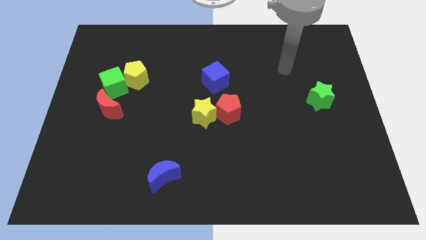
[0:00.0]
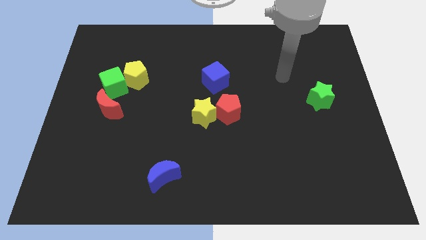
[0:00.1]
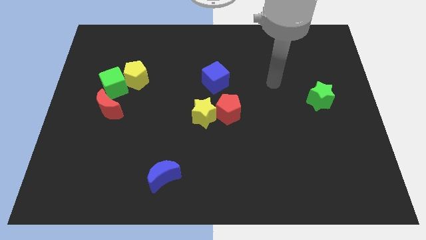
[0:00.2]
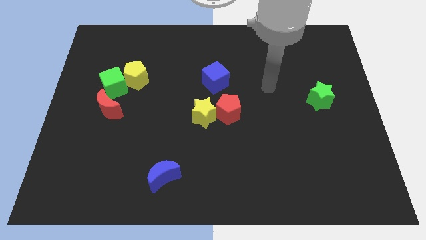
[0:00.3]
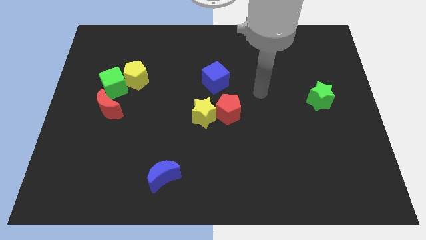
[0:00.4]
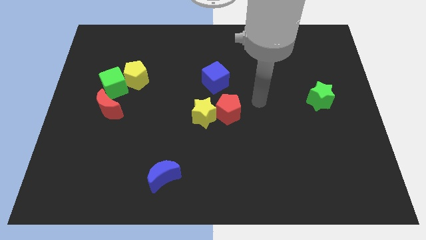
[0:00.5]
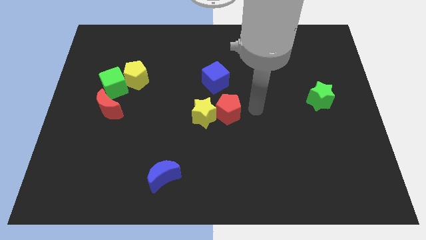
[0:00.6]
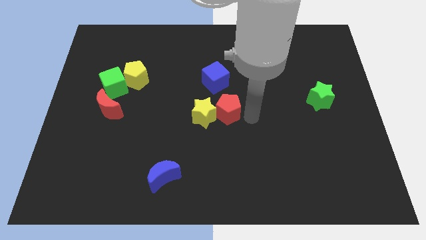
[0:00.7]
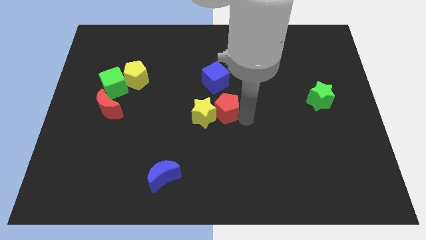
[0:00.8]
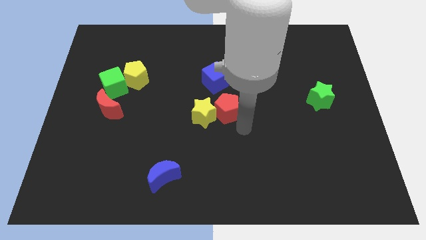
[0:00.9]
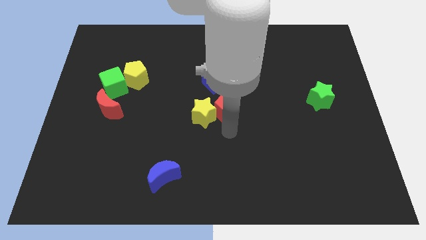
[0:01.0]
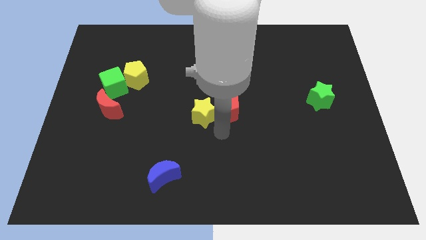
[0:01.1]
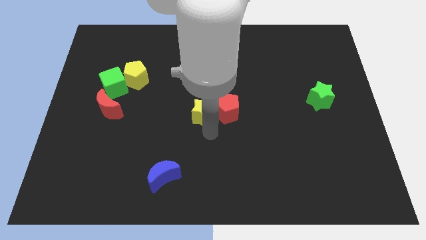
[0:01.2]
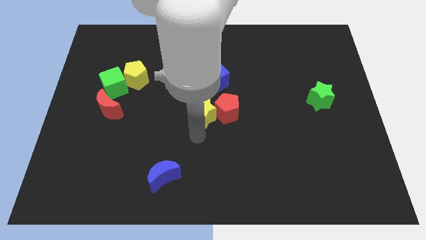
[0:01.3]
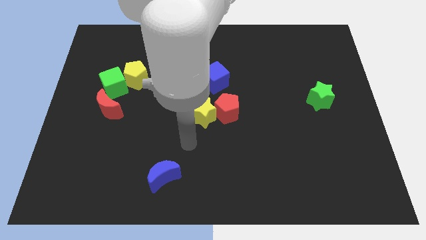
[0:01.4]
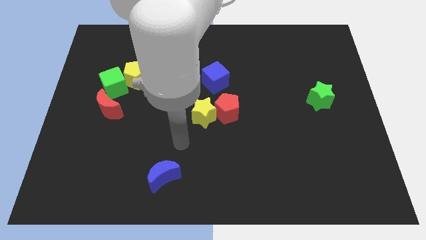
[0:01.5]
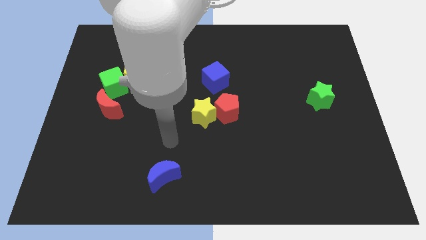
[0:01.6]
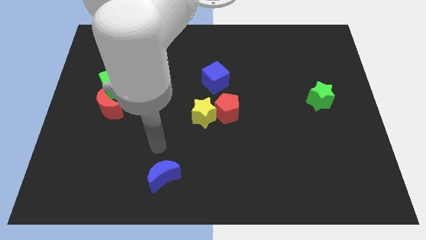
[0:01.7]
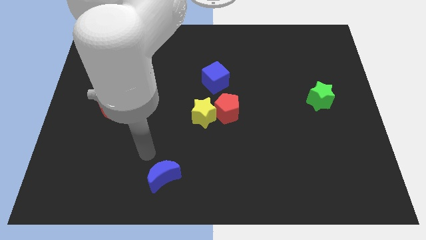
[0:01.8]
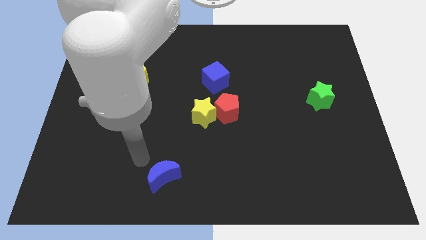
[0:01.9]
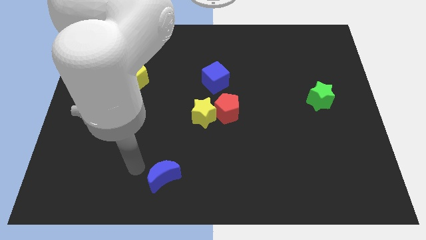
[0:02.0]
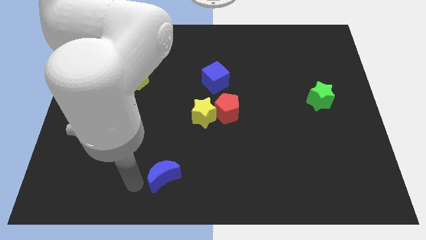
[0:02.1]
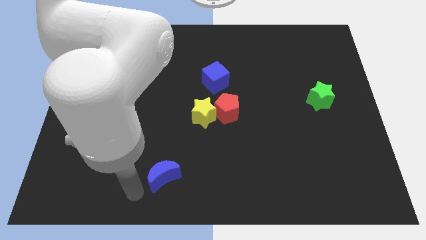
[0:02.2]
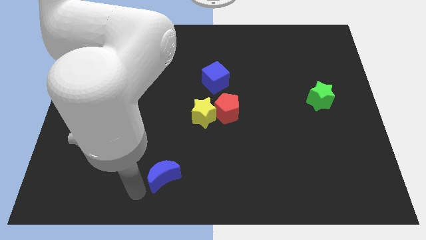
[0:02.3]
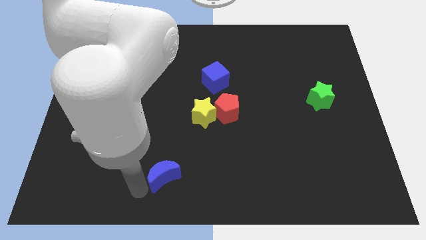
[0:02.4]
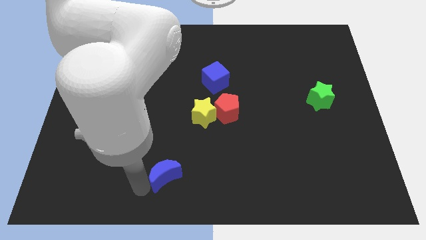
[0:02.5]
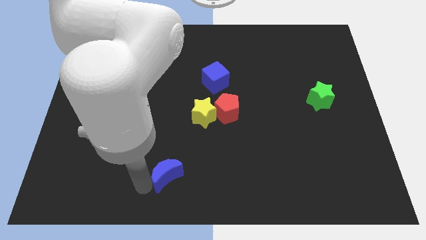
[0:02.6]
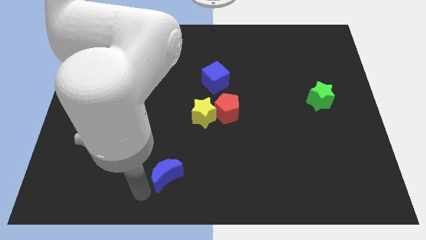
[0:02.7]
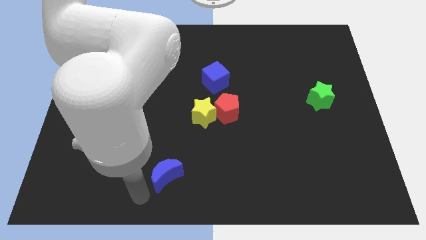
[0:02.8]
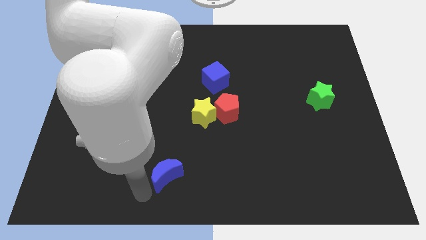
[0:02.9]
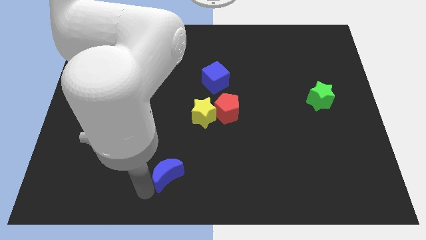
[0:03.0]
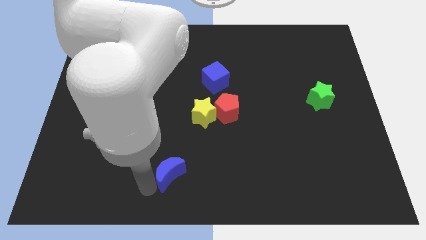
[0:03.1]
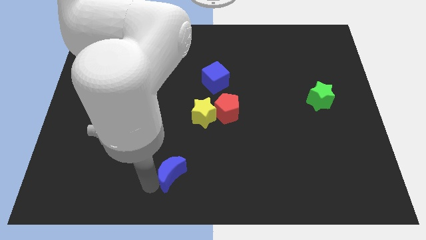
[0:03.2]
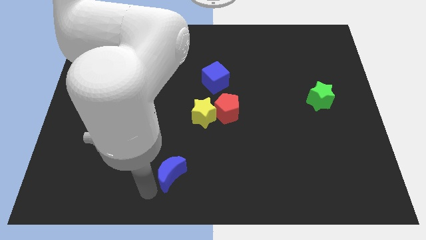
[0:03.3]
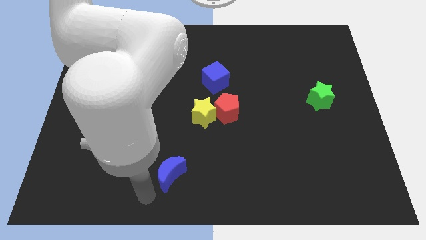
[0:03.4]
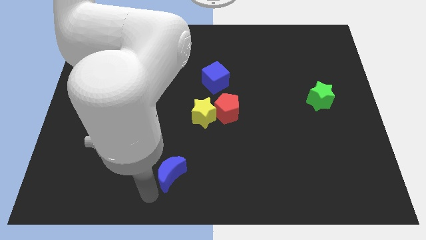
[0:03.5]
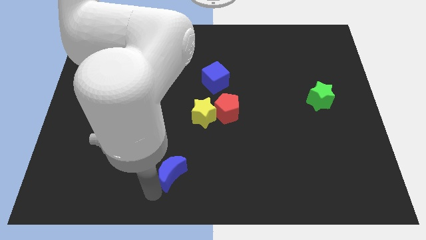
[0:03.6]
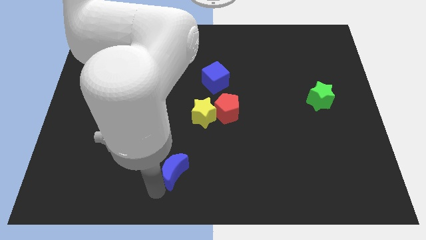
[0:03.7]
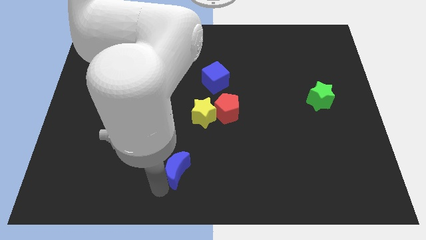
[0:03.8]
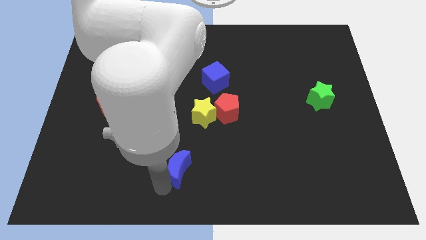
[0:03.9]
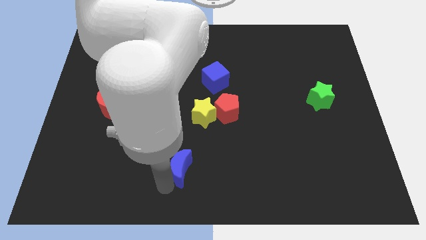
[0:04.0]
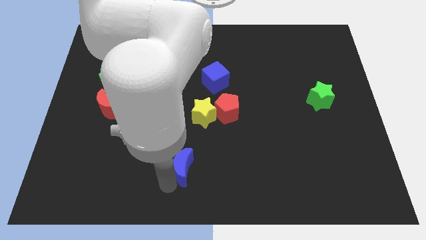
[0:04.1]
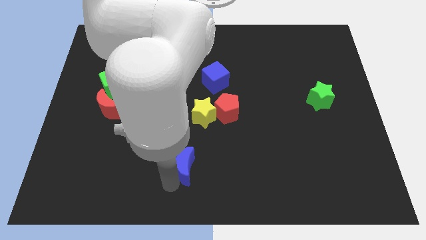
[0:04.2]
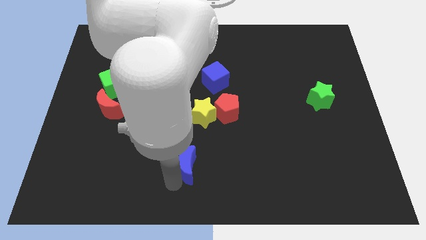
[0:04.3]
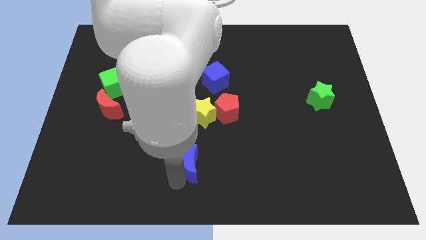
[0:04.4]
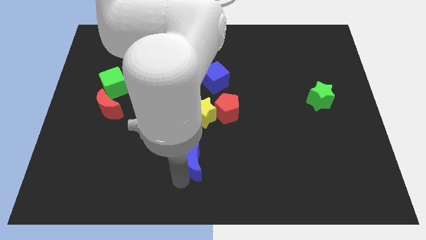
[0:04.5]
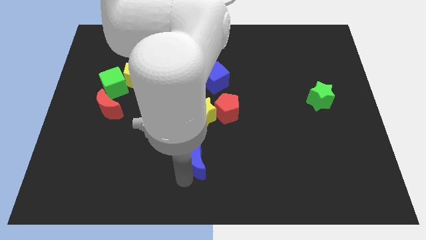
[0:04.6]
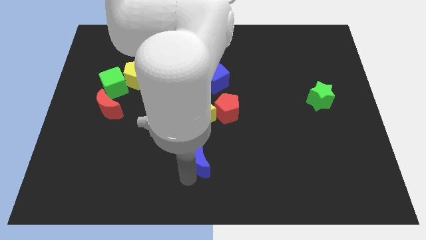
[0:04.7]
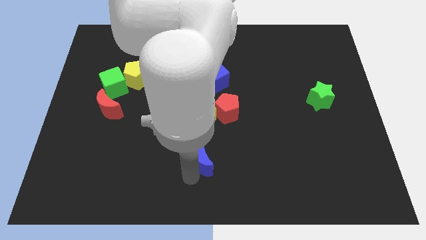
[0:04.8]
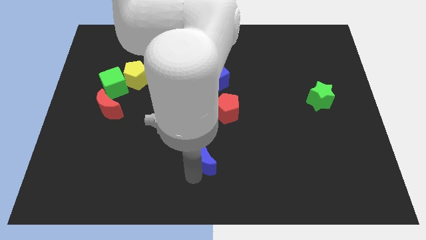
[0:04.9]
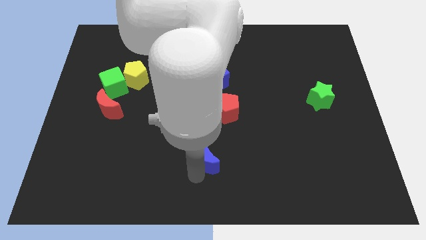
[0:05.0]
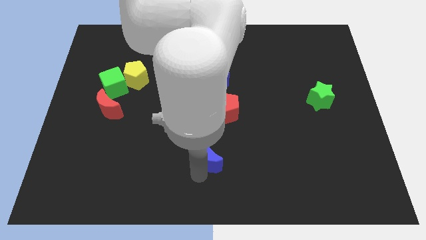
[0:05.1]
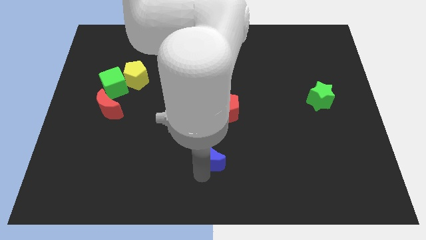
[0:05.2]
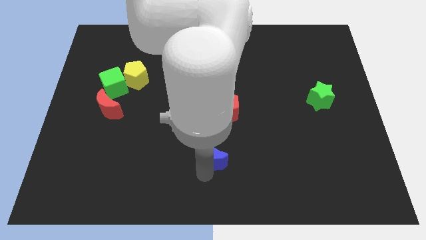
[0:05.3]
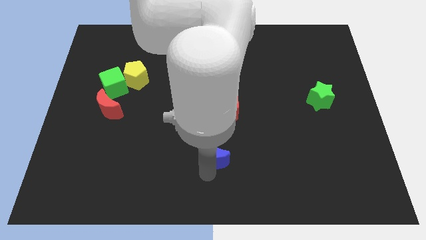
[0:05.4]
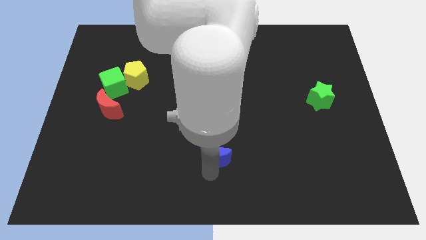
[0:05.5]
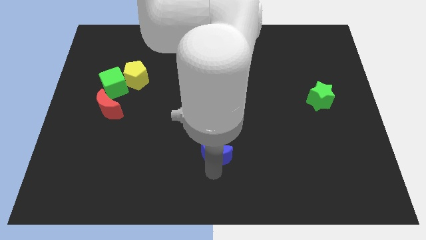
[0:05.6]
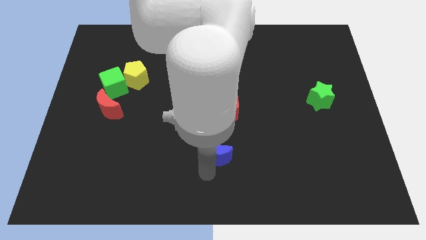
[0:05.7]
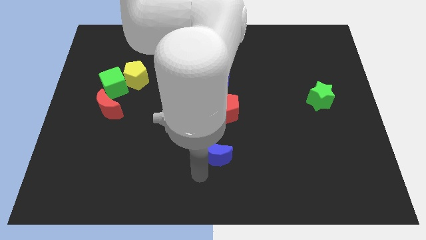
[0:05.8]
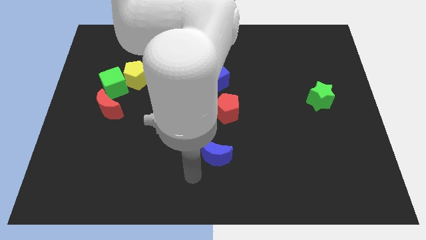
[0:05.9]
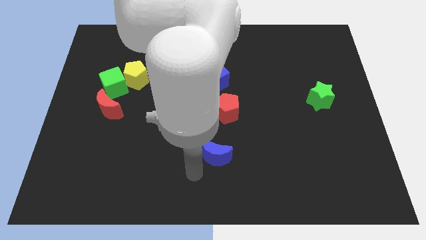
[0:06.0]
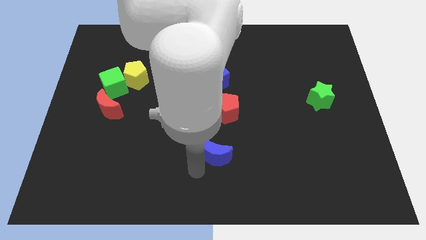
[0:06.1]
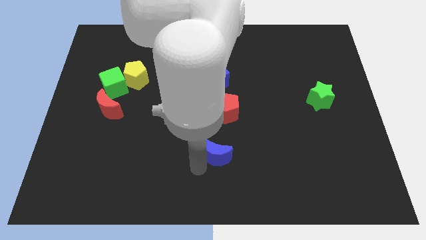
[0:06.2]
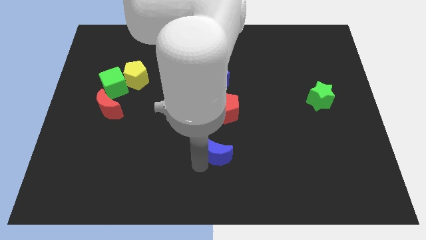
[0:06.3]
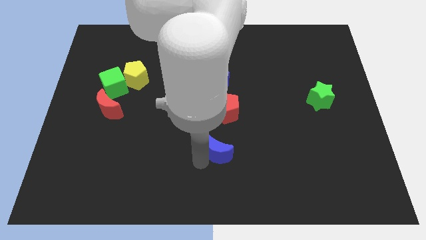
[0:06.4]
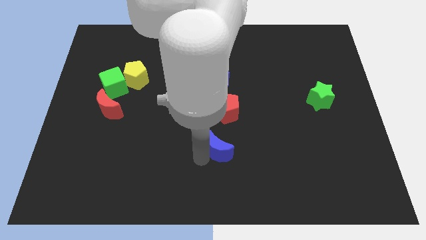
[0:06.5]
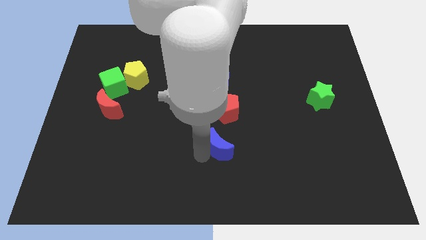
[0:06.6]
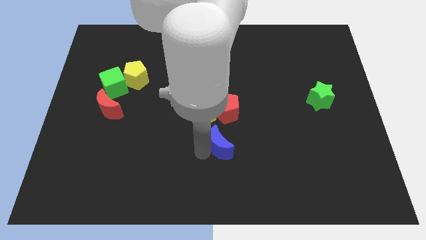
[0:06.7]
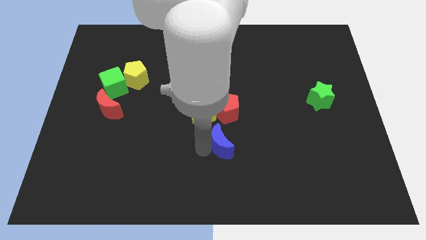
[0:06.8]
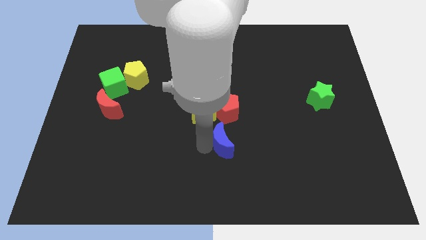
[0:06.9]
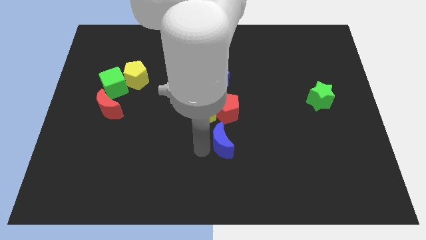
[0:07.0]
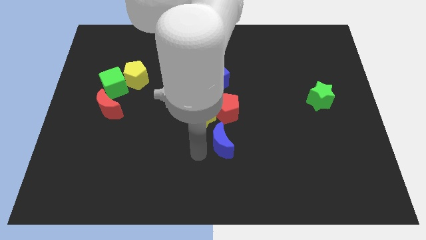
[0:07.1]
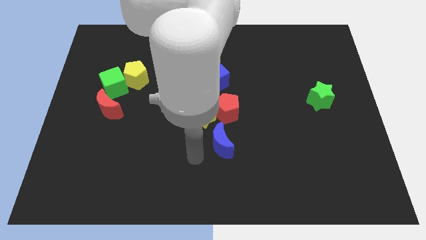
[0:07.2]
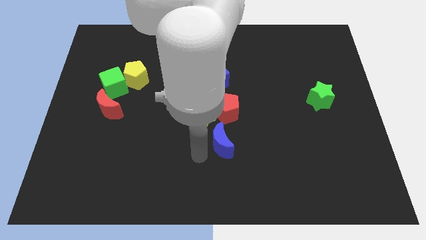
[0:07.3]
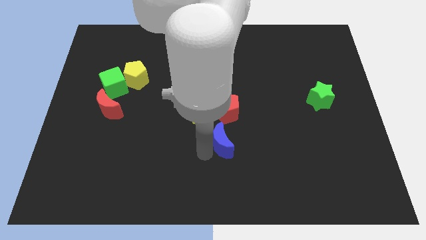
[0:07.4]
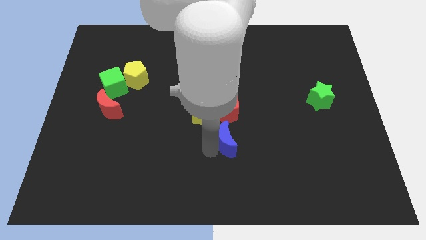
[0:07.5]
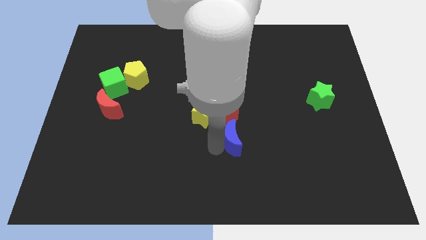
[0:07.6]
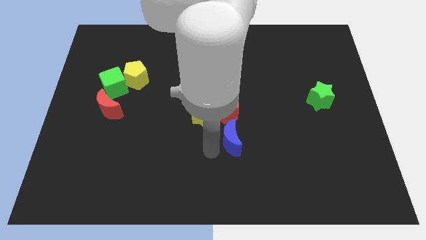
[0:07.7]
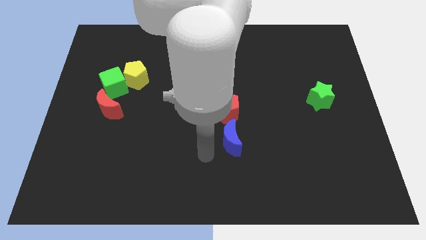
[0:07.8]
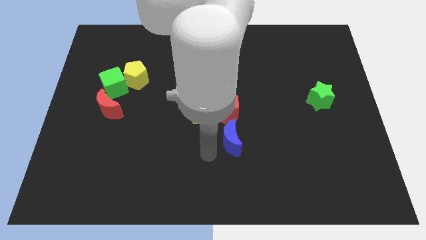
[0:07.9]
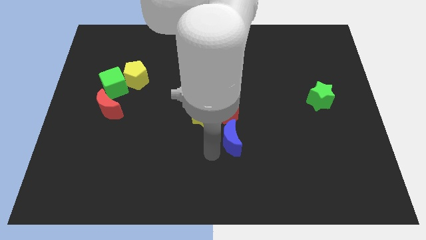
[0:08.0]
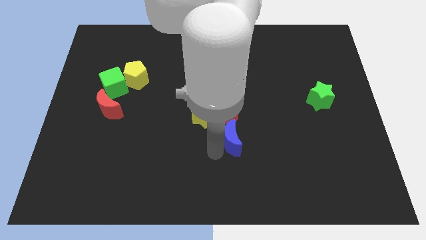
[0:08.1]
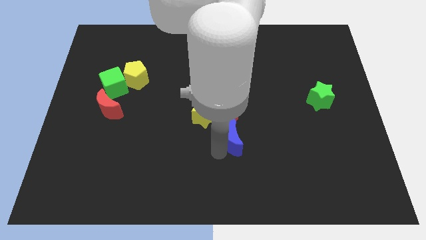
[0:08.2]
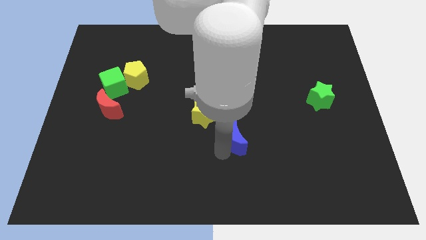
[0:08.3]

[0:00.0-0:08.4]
move the blue moon diagonally down and to the right of the red pentagon
